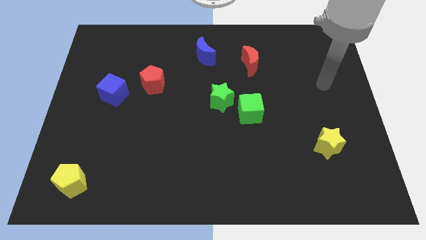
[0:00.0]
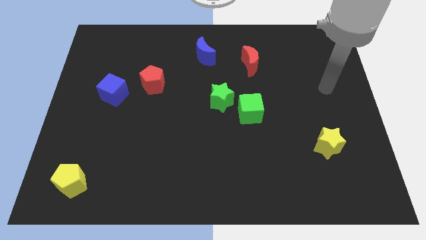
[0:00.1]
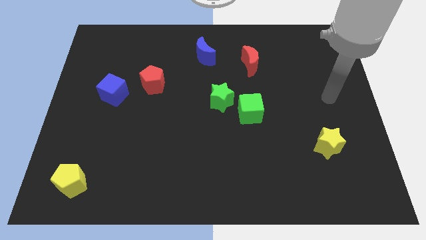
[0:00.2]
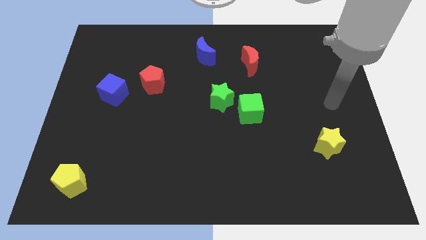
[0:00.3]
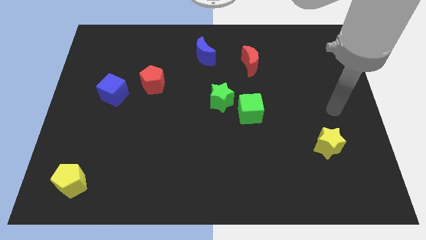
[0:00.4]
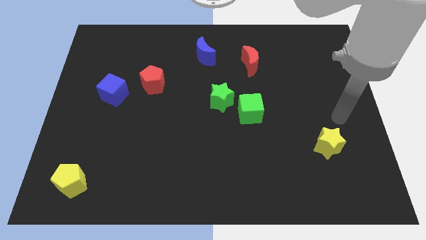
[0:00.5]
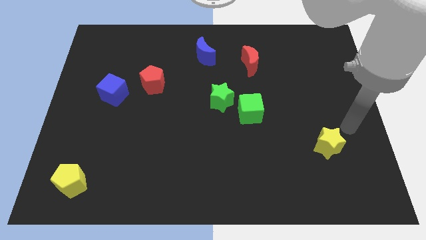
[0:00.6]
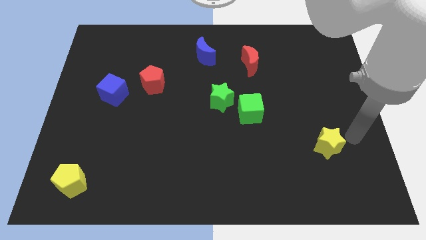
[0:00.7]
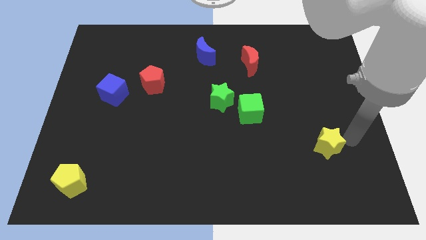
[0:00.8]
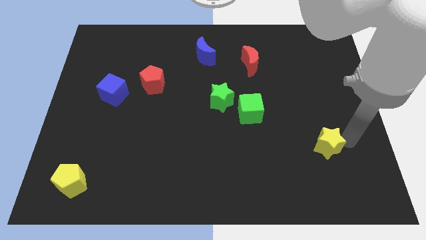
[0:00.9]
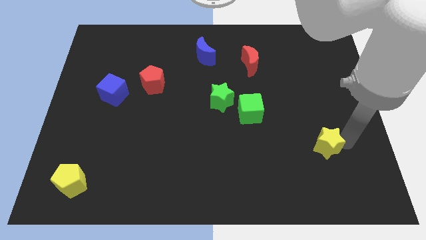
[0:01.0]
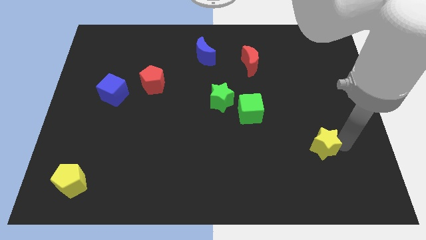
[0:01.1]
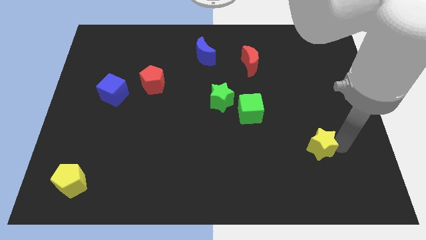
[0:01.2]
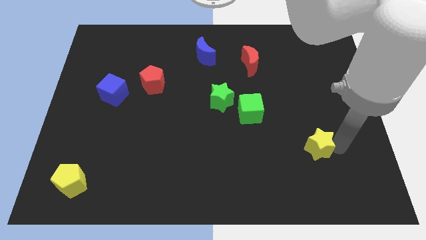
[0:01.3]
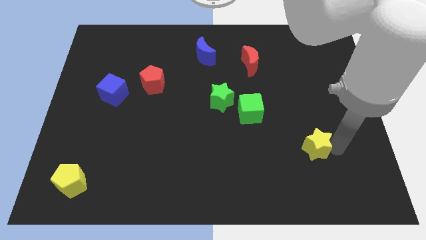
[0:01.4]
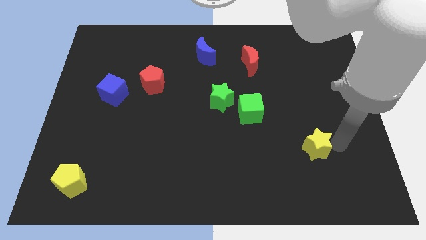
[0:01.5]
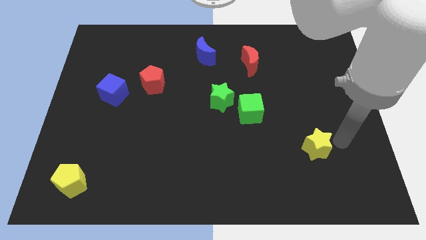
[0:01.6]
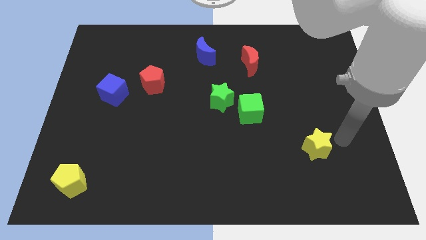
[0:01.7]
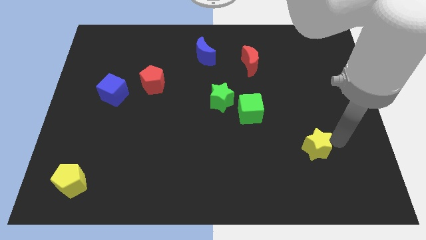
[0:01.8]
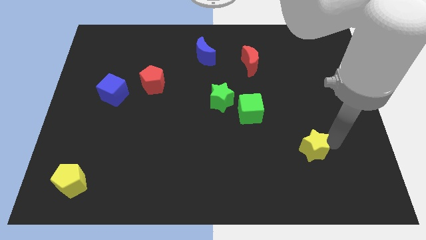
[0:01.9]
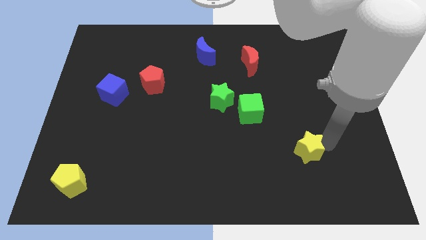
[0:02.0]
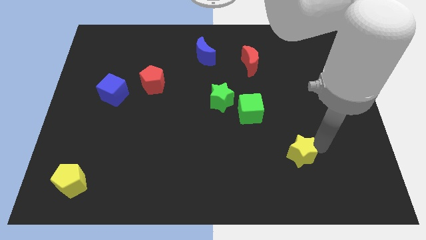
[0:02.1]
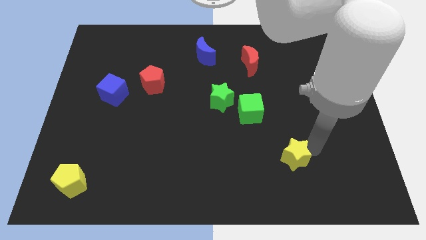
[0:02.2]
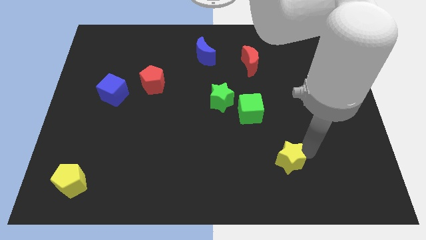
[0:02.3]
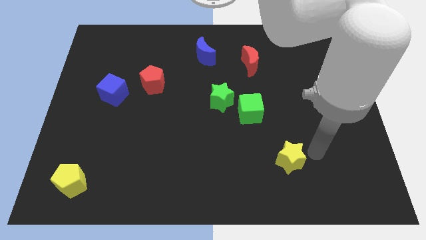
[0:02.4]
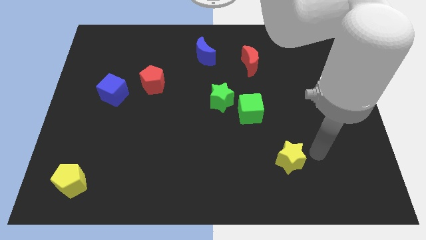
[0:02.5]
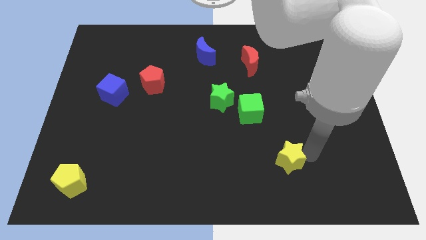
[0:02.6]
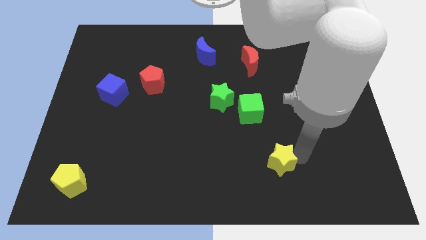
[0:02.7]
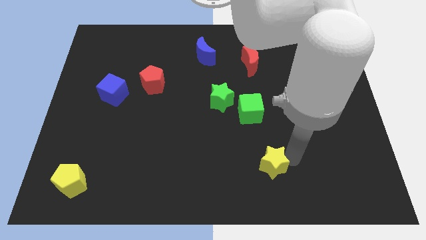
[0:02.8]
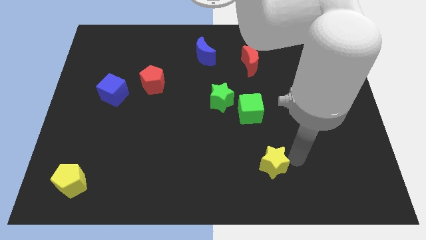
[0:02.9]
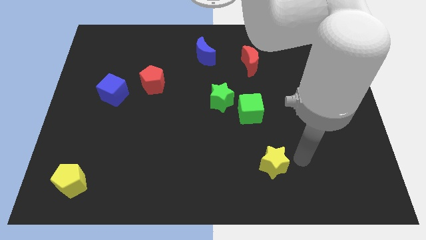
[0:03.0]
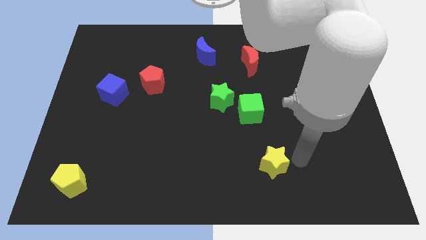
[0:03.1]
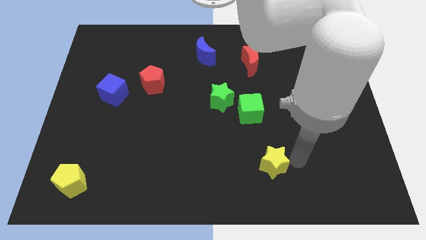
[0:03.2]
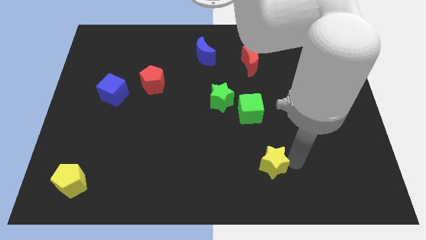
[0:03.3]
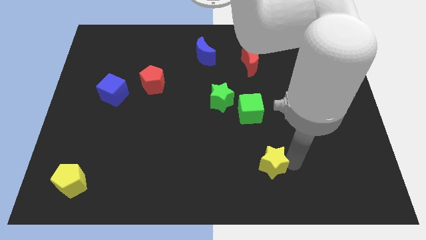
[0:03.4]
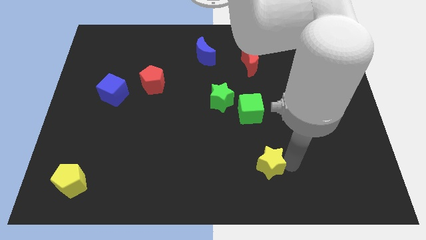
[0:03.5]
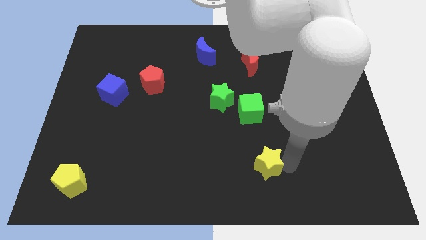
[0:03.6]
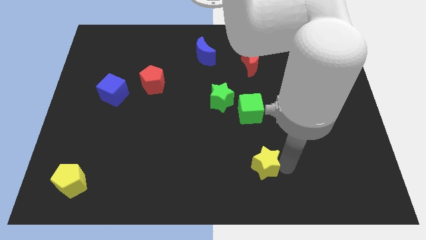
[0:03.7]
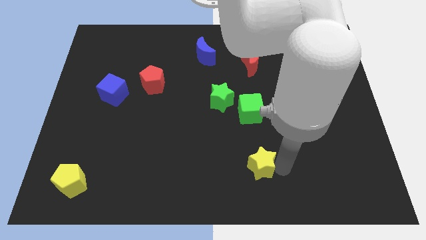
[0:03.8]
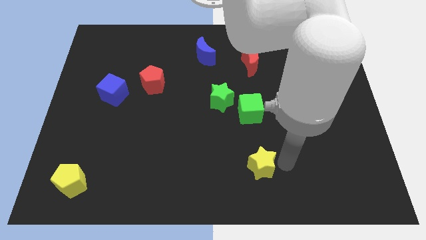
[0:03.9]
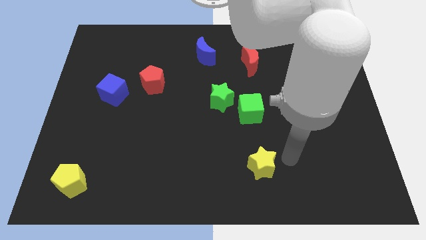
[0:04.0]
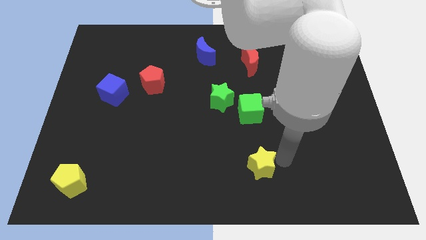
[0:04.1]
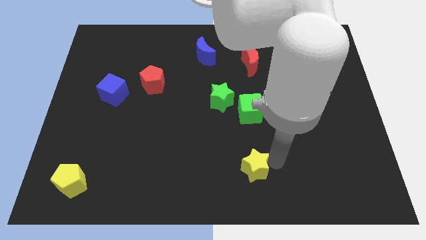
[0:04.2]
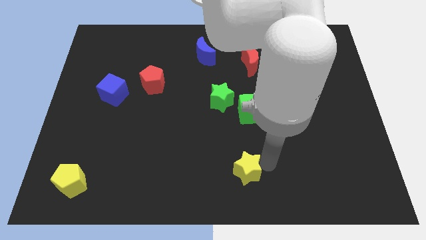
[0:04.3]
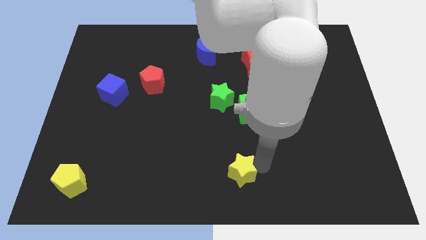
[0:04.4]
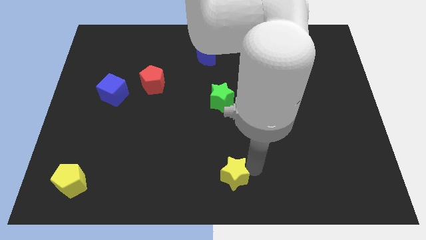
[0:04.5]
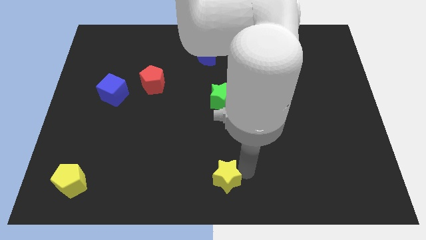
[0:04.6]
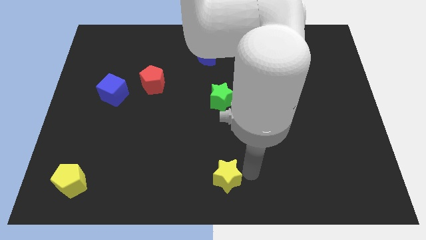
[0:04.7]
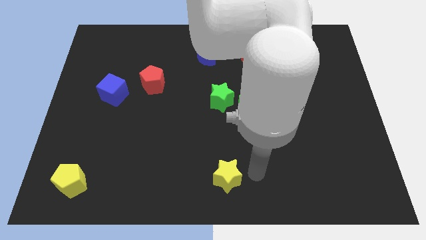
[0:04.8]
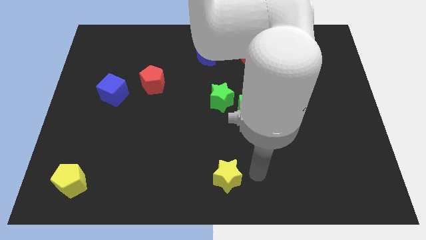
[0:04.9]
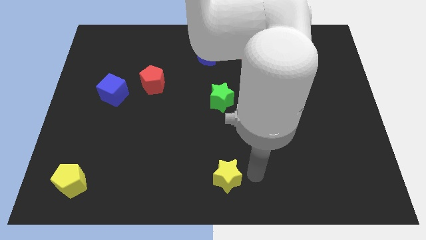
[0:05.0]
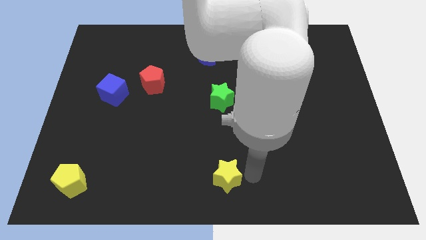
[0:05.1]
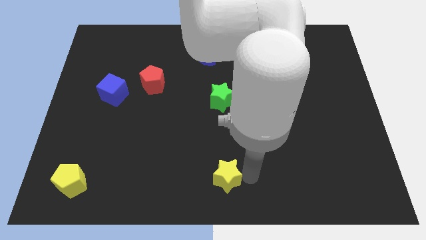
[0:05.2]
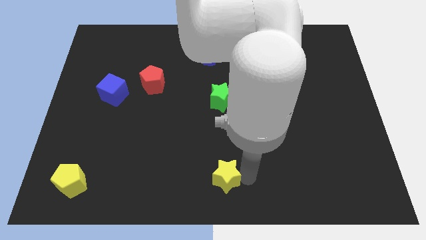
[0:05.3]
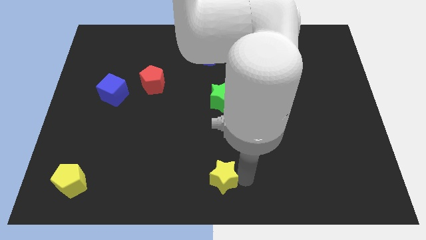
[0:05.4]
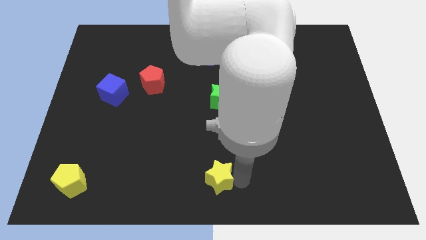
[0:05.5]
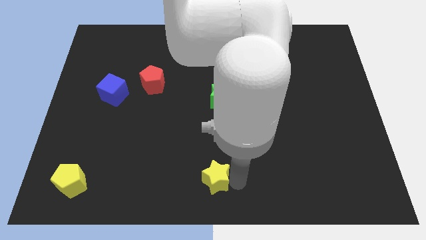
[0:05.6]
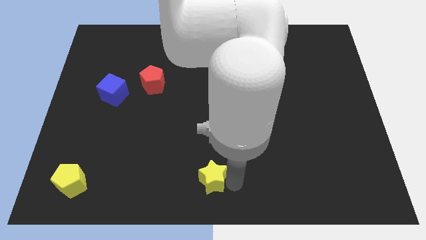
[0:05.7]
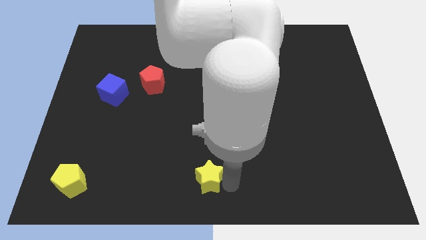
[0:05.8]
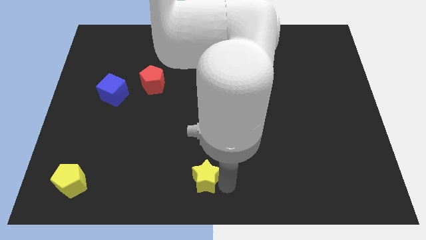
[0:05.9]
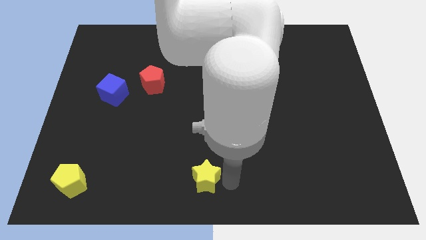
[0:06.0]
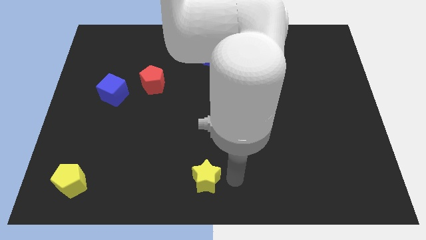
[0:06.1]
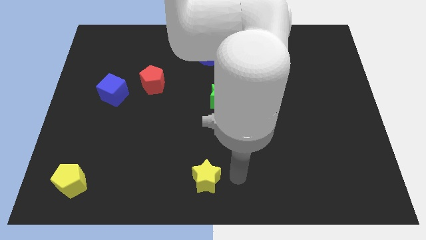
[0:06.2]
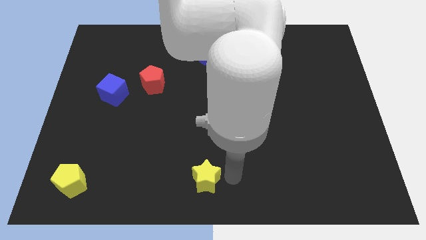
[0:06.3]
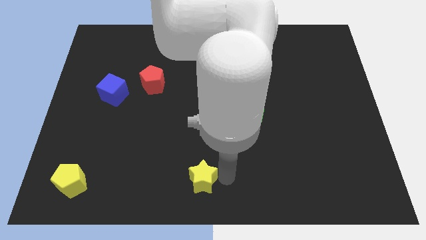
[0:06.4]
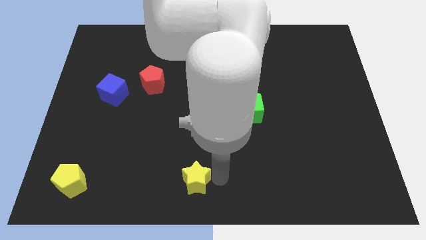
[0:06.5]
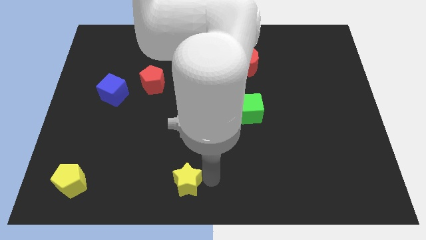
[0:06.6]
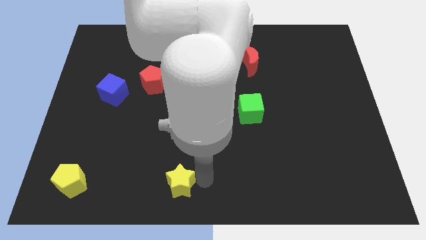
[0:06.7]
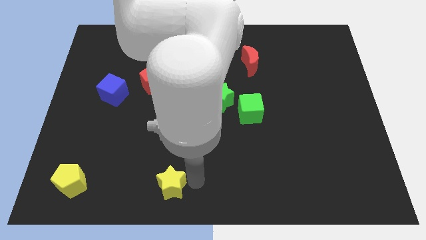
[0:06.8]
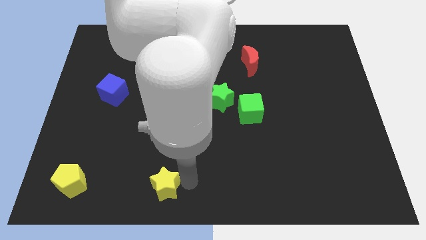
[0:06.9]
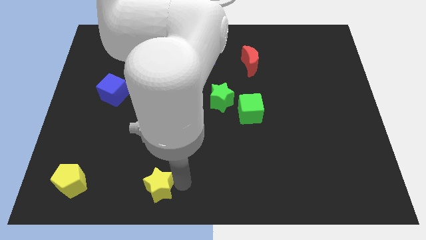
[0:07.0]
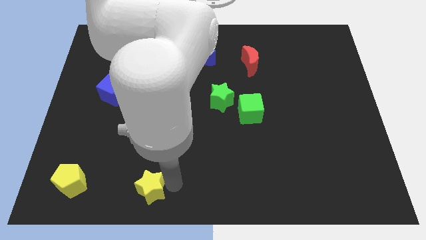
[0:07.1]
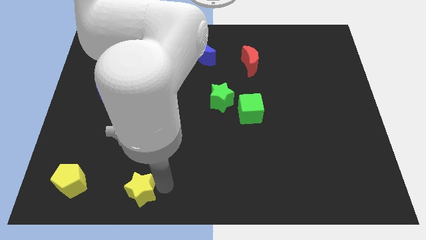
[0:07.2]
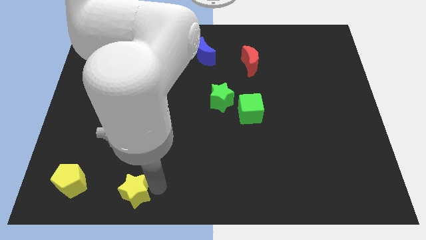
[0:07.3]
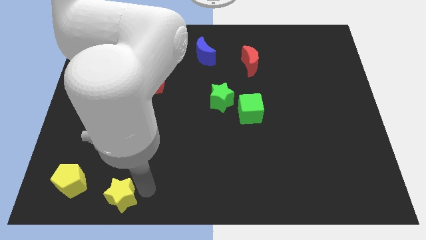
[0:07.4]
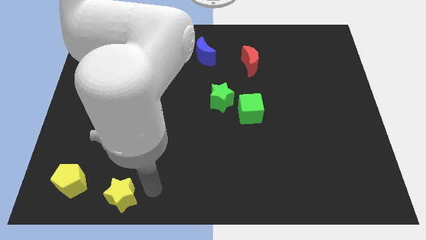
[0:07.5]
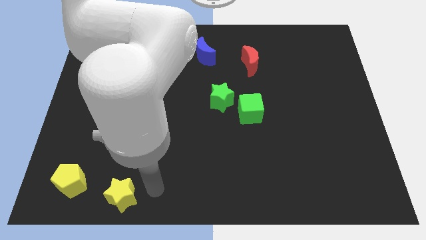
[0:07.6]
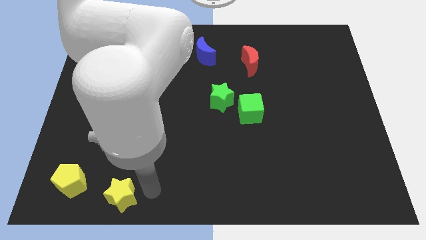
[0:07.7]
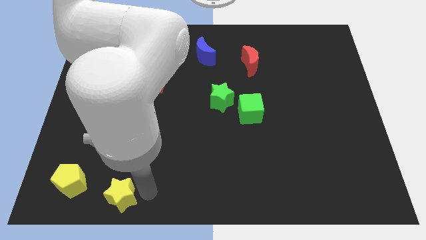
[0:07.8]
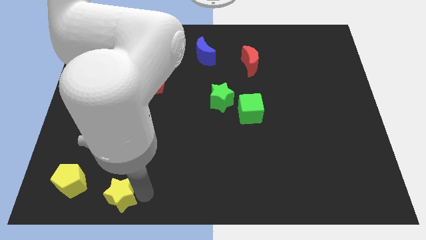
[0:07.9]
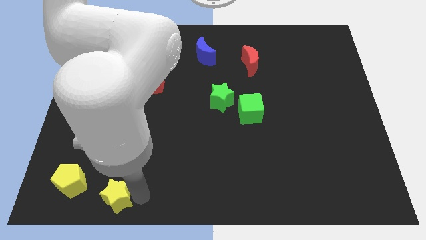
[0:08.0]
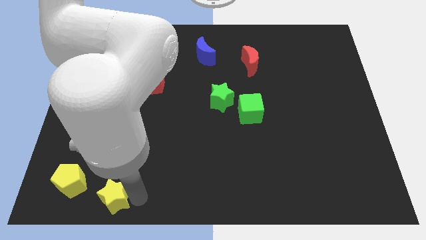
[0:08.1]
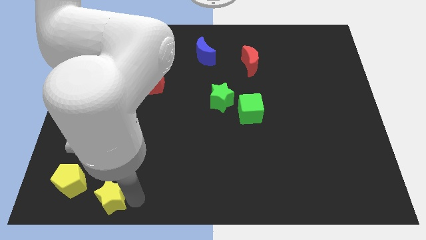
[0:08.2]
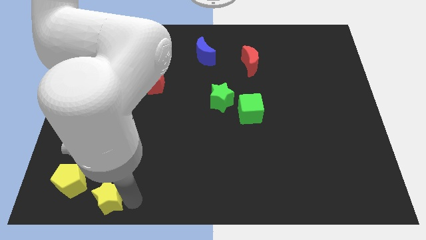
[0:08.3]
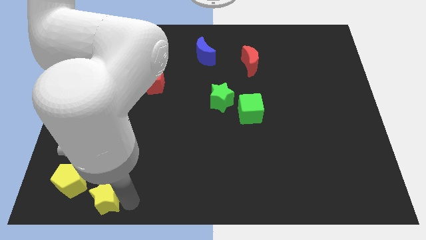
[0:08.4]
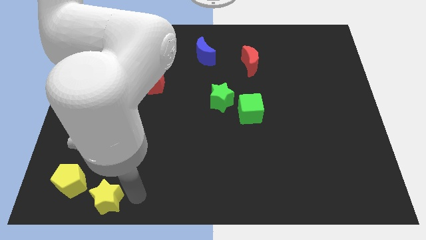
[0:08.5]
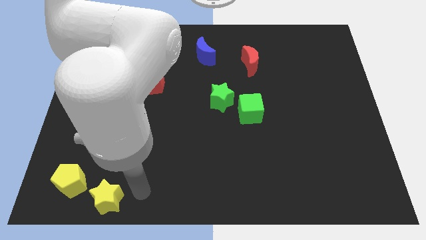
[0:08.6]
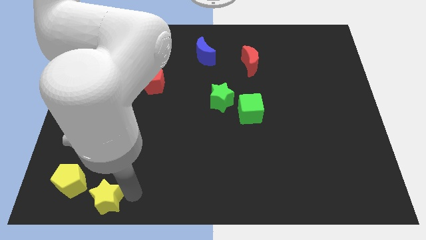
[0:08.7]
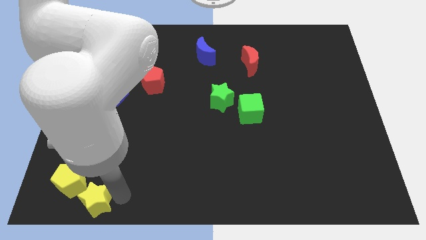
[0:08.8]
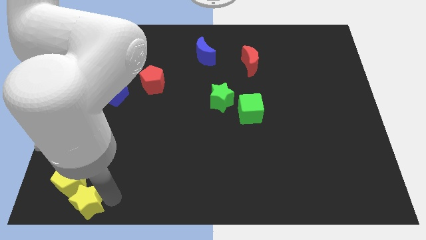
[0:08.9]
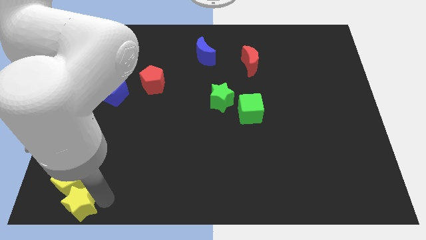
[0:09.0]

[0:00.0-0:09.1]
move the yellow star to the lower left corner
